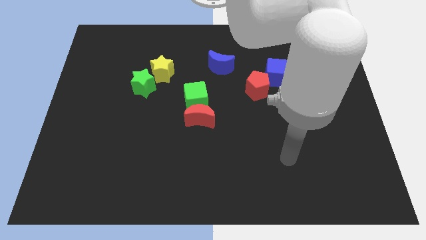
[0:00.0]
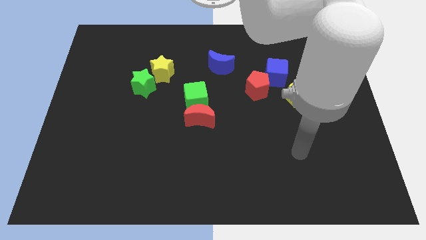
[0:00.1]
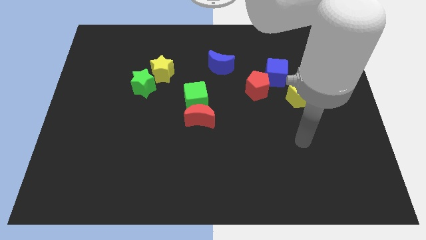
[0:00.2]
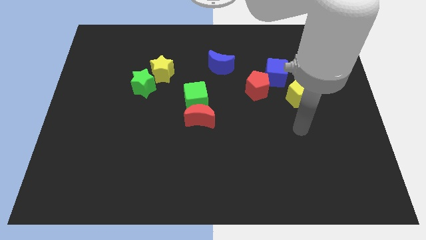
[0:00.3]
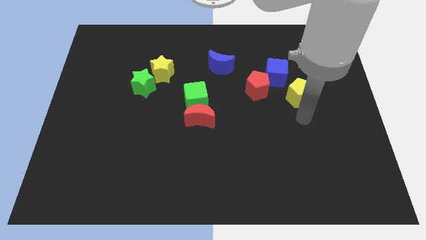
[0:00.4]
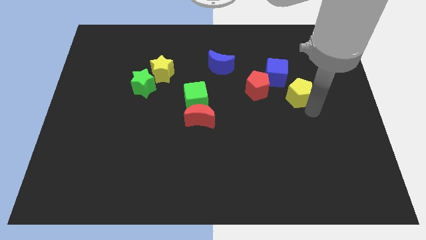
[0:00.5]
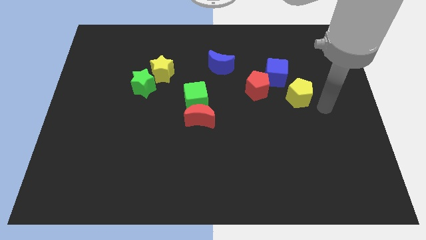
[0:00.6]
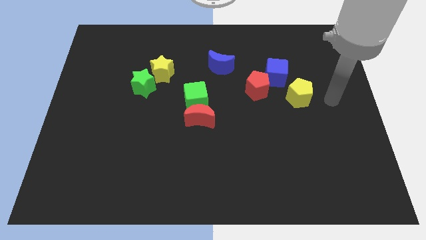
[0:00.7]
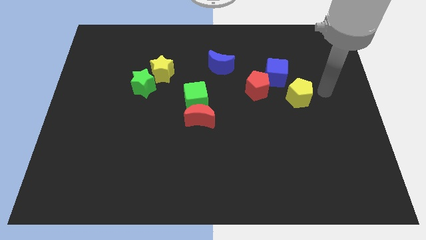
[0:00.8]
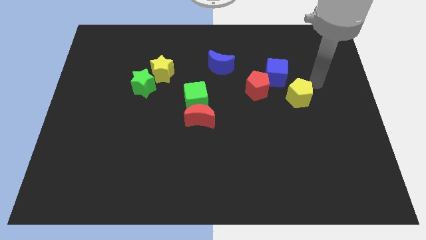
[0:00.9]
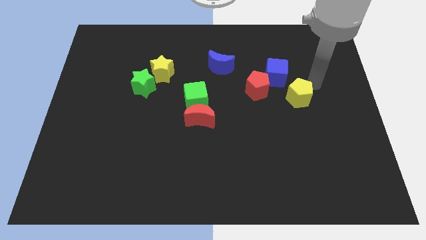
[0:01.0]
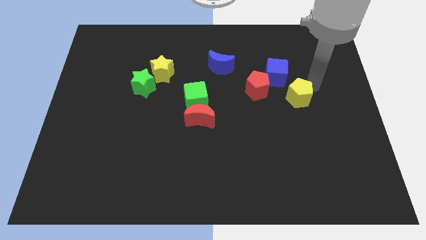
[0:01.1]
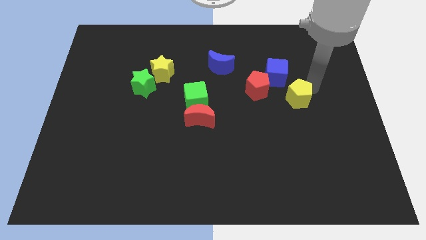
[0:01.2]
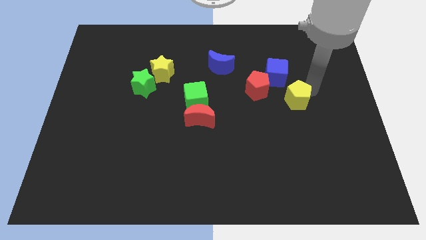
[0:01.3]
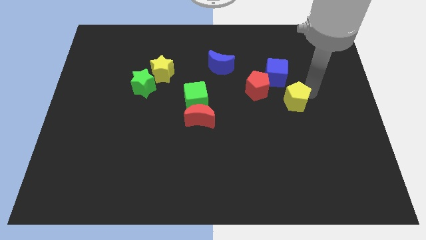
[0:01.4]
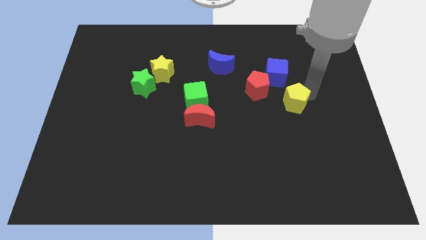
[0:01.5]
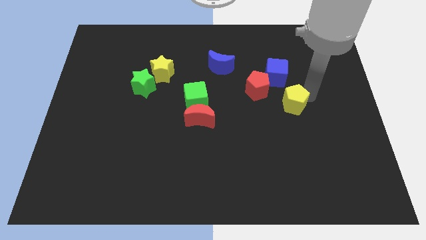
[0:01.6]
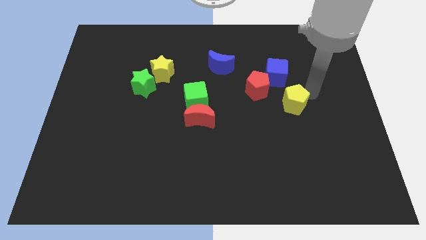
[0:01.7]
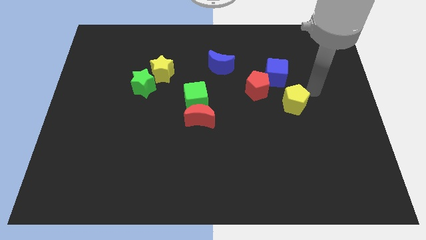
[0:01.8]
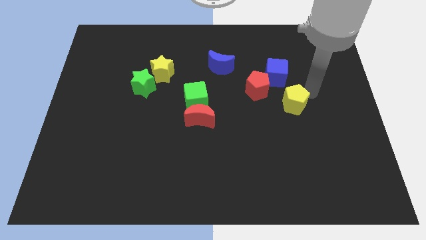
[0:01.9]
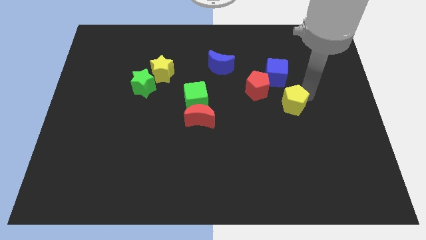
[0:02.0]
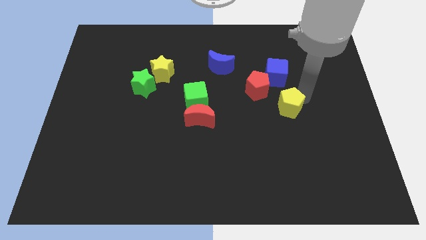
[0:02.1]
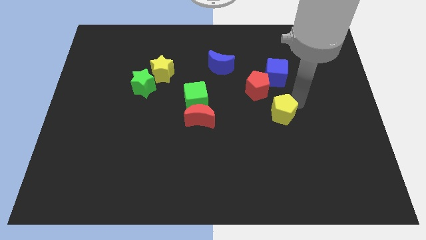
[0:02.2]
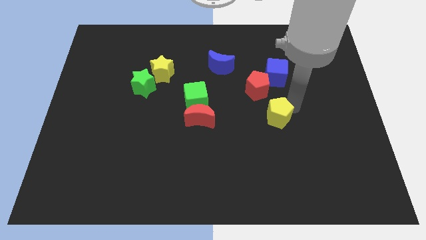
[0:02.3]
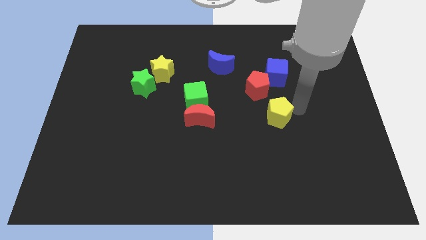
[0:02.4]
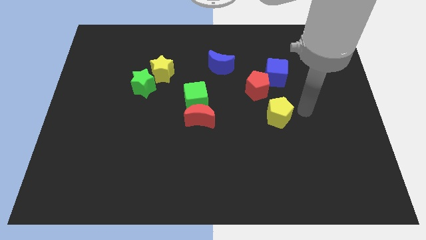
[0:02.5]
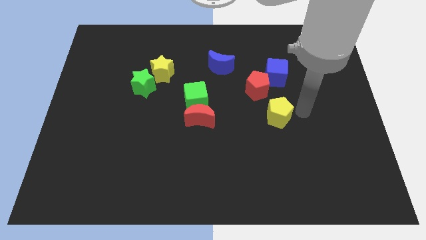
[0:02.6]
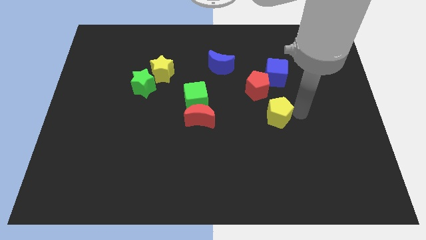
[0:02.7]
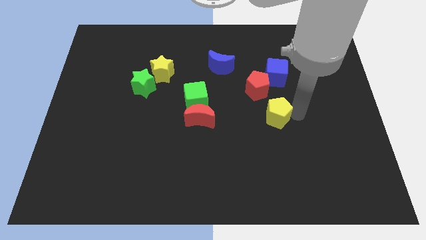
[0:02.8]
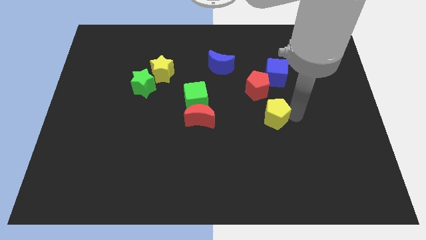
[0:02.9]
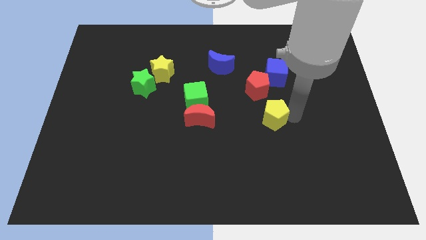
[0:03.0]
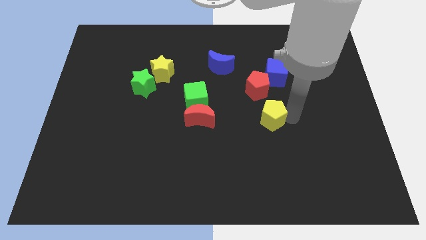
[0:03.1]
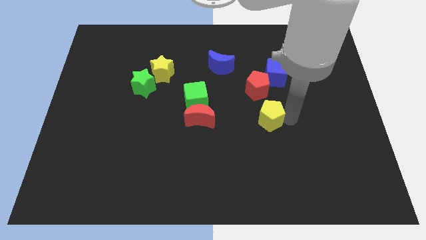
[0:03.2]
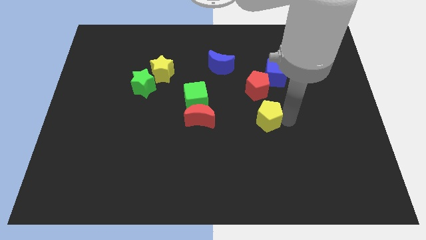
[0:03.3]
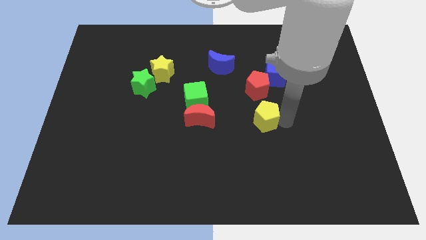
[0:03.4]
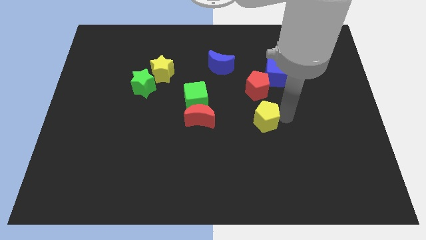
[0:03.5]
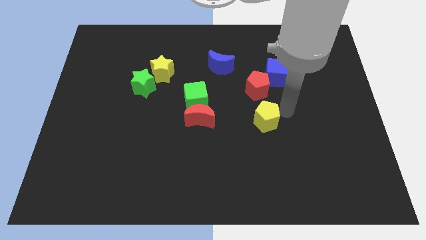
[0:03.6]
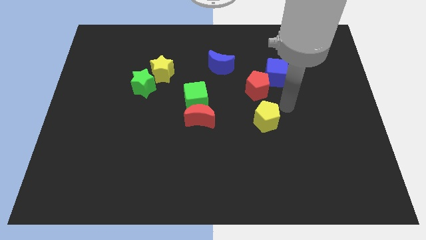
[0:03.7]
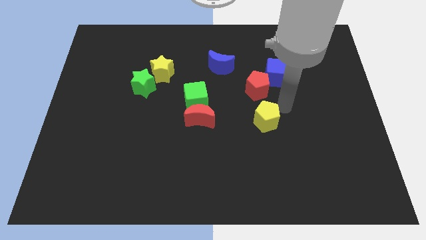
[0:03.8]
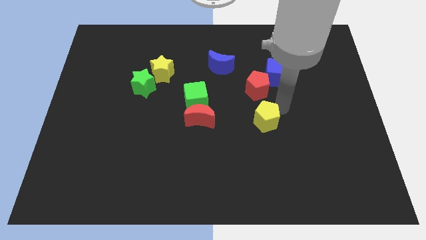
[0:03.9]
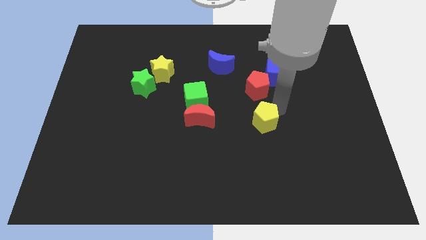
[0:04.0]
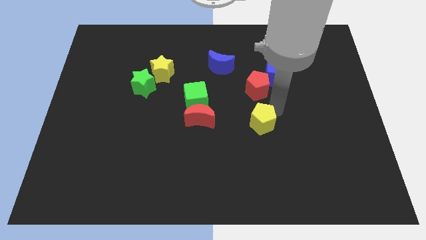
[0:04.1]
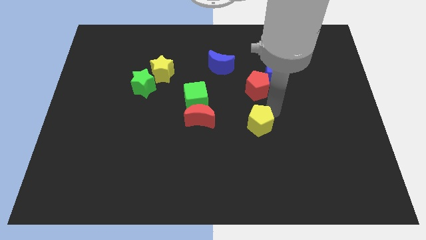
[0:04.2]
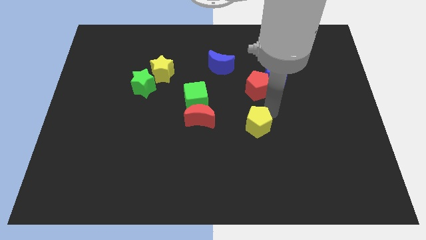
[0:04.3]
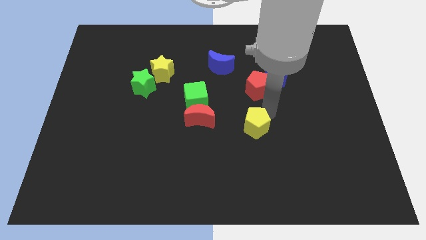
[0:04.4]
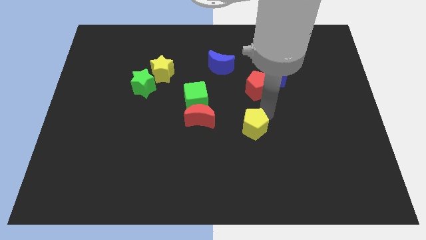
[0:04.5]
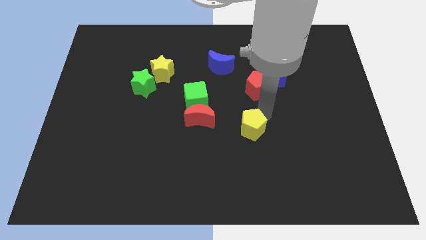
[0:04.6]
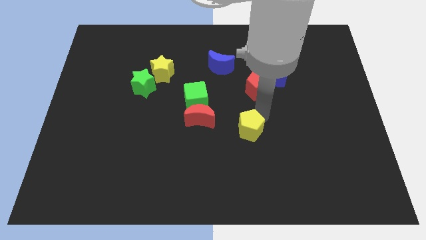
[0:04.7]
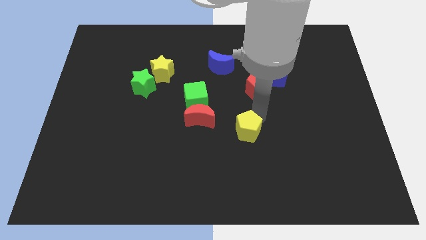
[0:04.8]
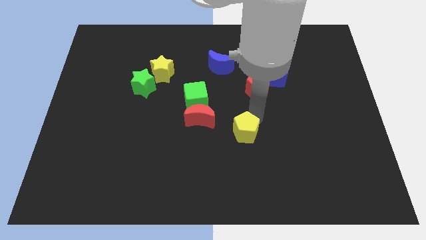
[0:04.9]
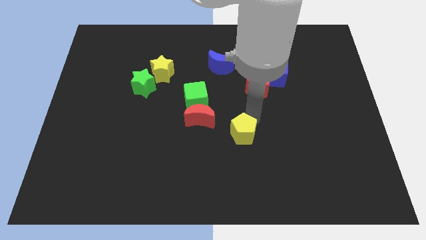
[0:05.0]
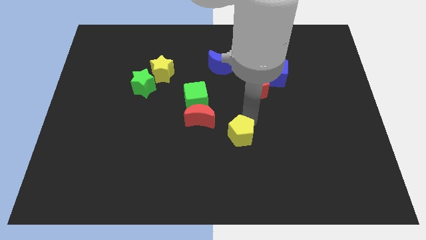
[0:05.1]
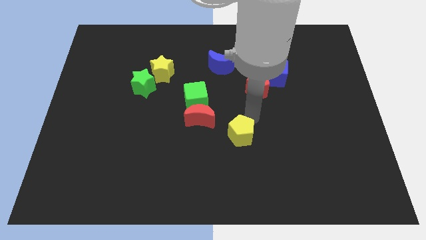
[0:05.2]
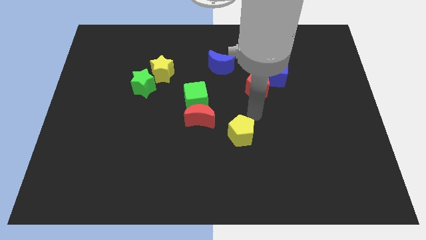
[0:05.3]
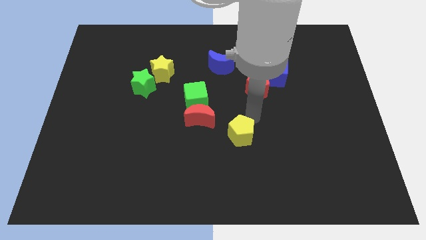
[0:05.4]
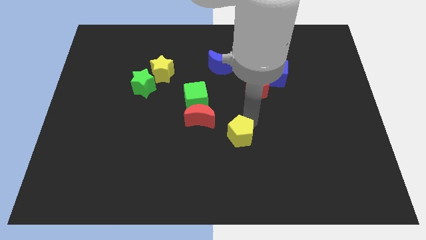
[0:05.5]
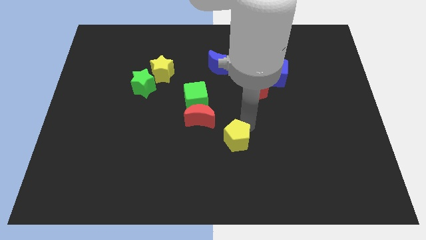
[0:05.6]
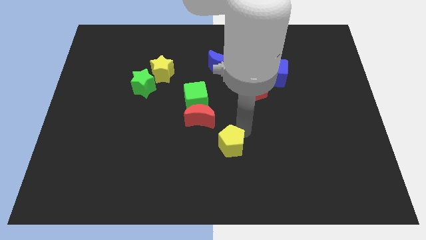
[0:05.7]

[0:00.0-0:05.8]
slide the yellow pentagon downwards and left diagonally

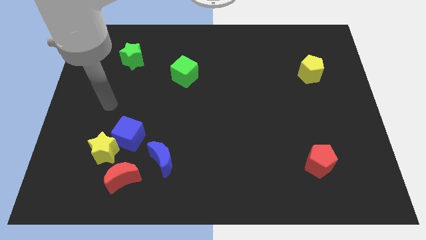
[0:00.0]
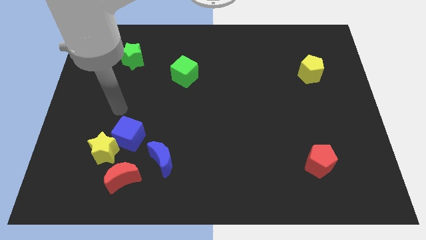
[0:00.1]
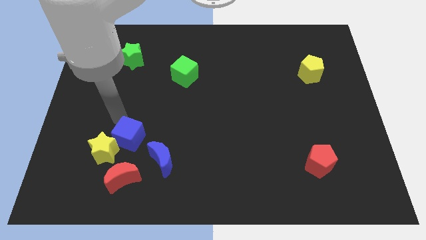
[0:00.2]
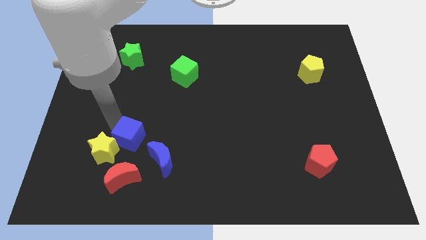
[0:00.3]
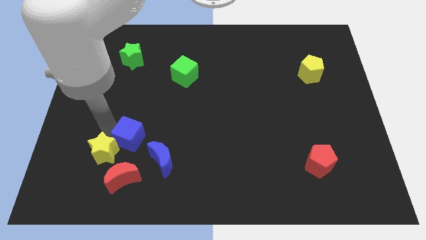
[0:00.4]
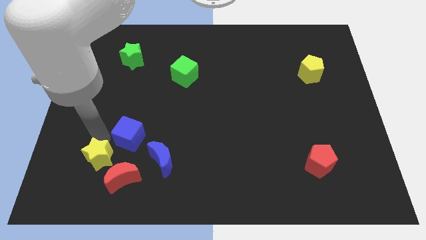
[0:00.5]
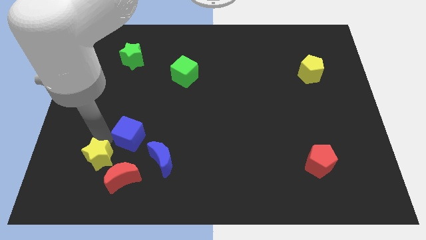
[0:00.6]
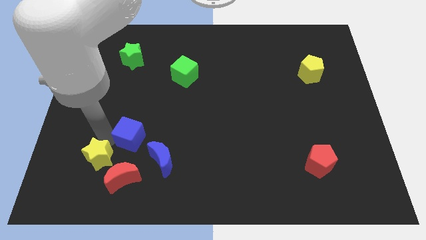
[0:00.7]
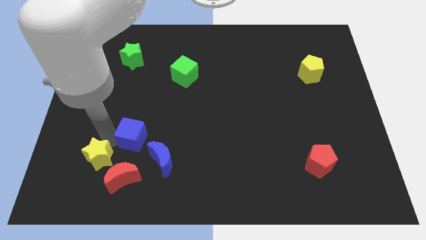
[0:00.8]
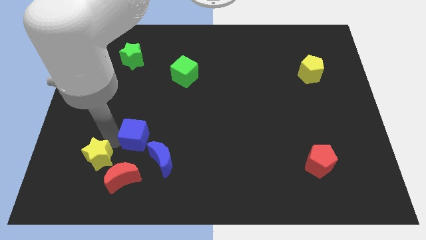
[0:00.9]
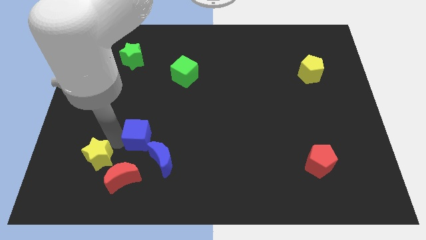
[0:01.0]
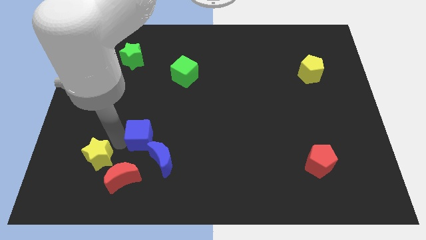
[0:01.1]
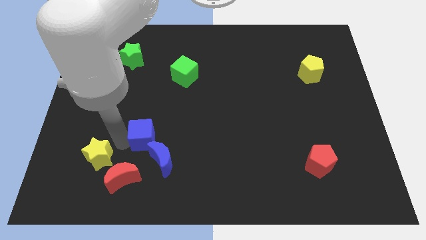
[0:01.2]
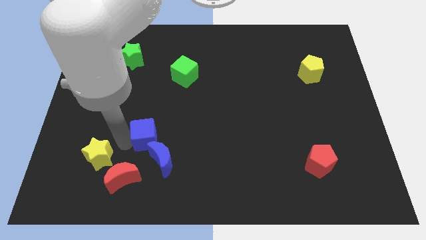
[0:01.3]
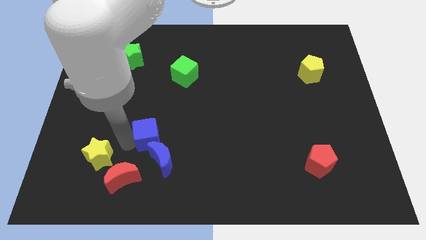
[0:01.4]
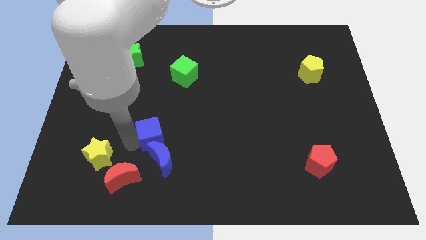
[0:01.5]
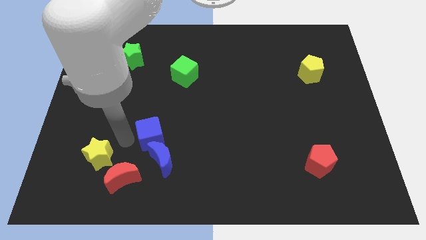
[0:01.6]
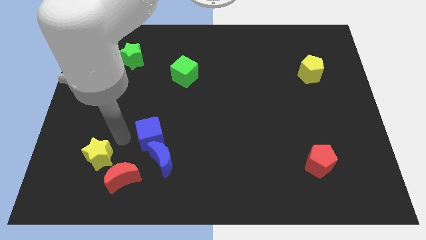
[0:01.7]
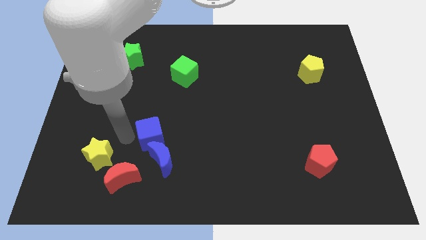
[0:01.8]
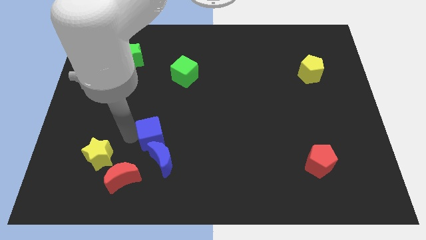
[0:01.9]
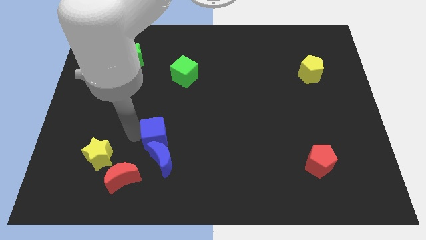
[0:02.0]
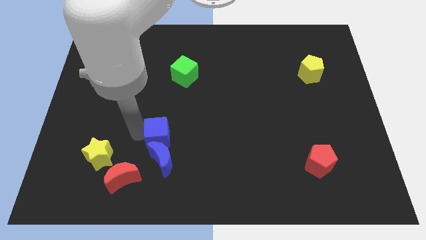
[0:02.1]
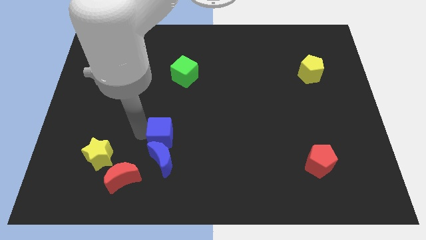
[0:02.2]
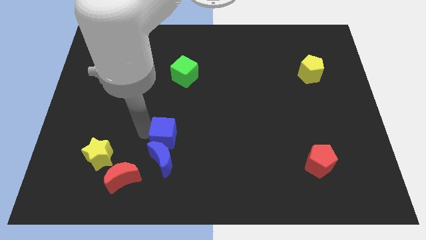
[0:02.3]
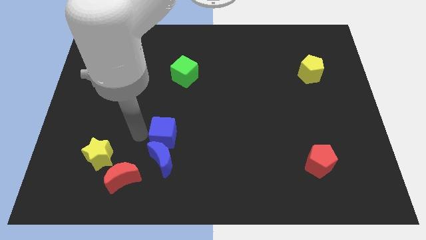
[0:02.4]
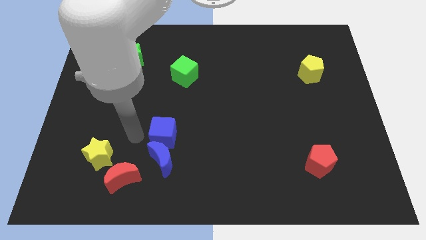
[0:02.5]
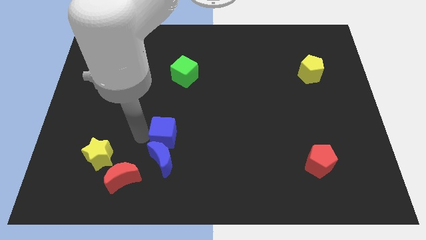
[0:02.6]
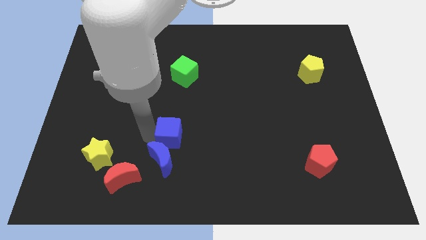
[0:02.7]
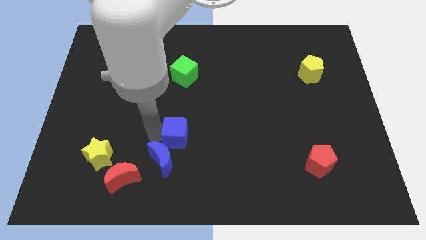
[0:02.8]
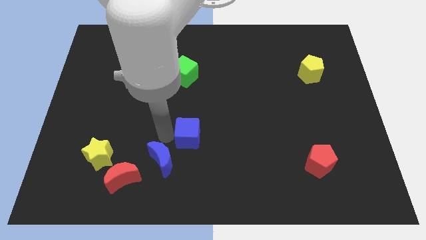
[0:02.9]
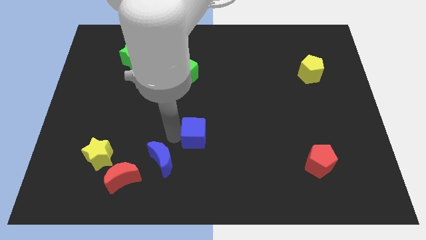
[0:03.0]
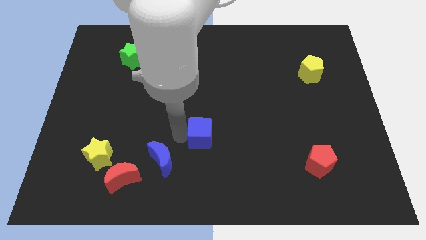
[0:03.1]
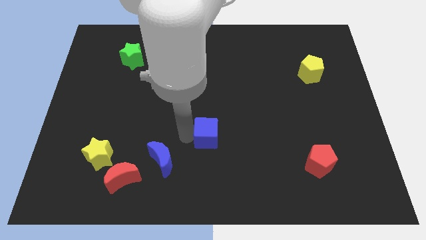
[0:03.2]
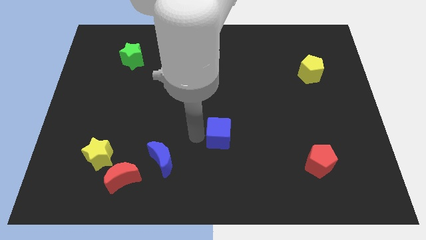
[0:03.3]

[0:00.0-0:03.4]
slide the blue cube right
